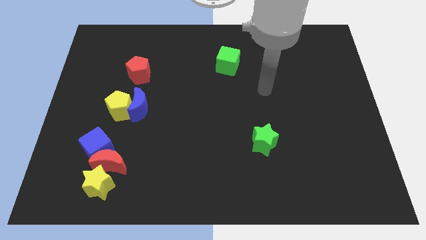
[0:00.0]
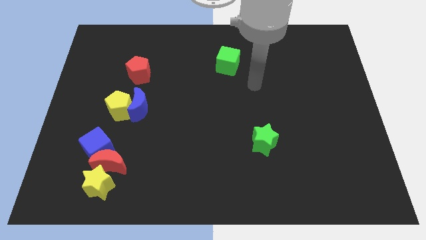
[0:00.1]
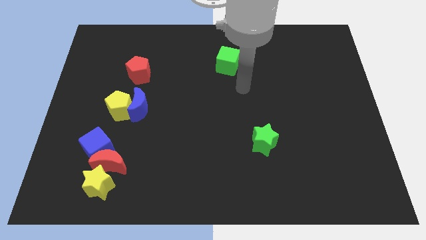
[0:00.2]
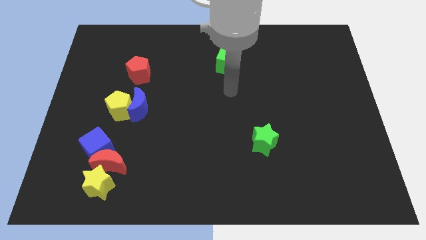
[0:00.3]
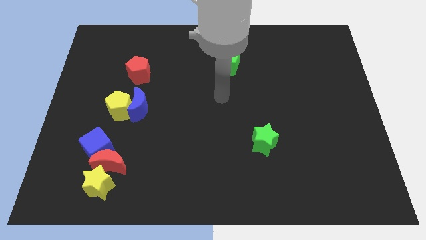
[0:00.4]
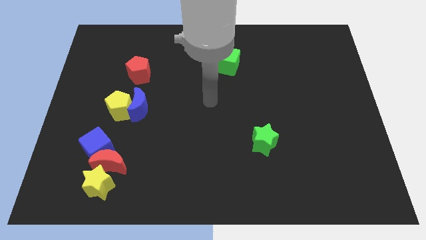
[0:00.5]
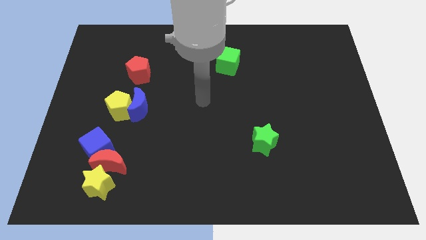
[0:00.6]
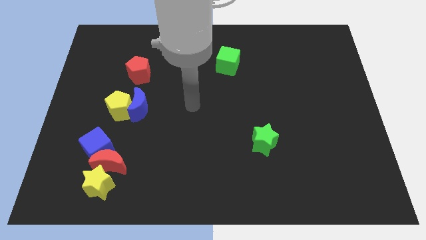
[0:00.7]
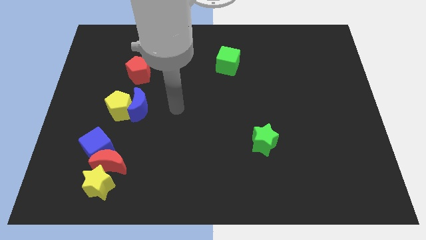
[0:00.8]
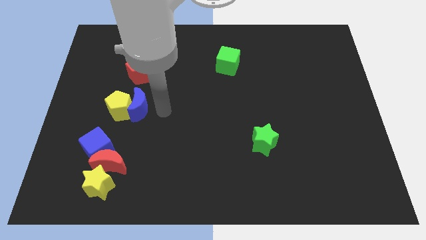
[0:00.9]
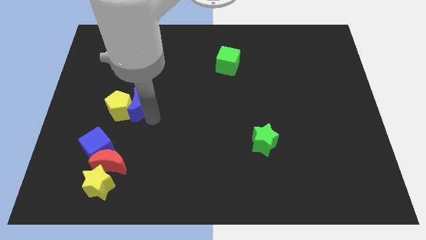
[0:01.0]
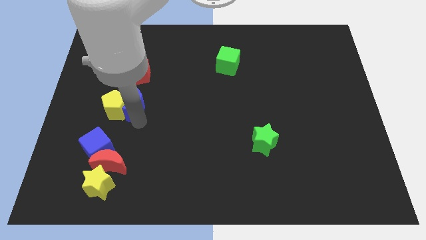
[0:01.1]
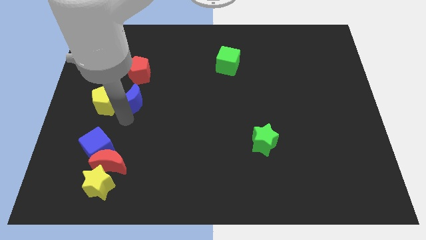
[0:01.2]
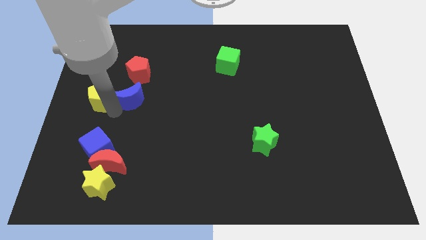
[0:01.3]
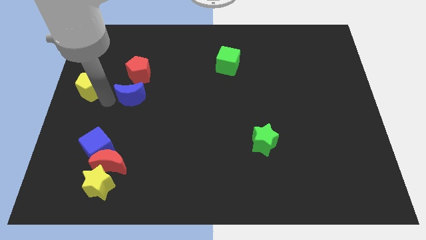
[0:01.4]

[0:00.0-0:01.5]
move the blue moon away from the yellow pentagon

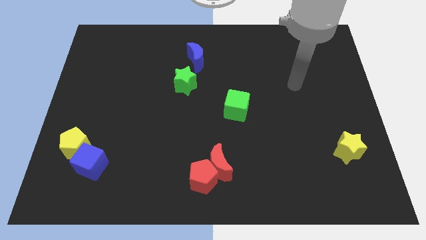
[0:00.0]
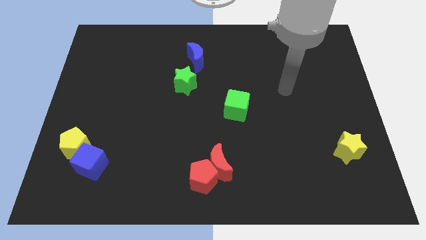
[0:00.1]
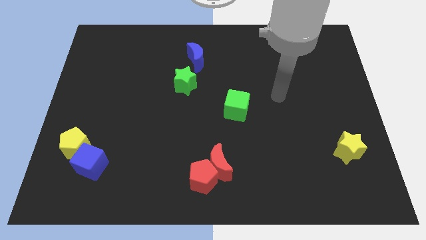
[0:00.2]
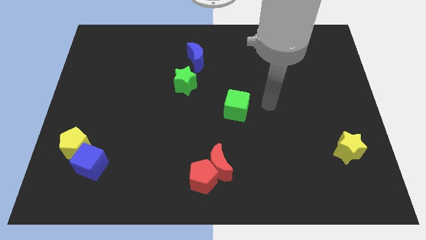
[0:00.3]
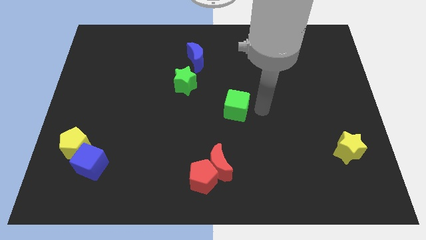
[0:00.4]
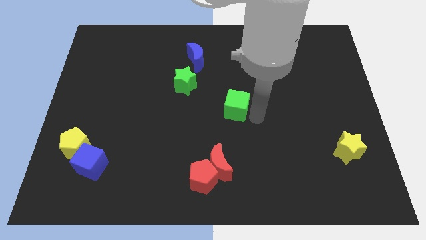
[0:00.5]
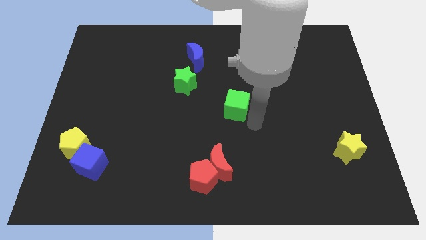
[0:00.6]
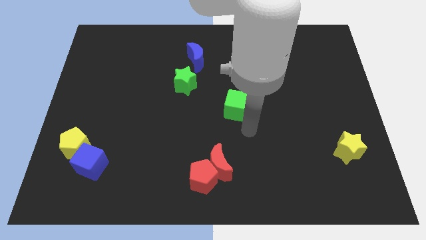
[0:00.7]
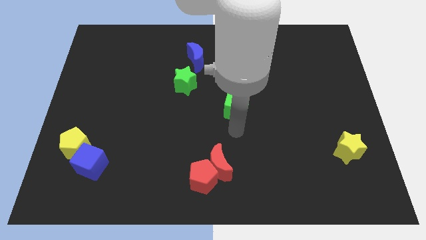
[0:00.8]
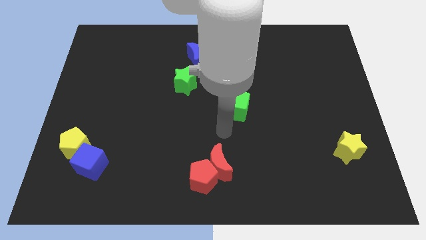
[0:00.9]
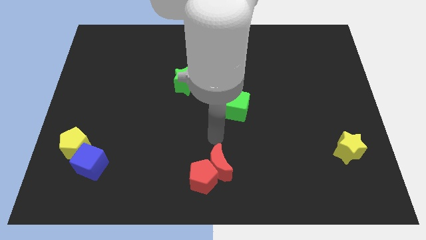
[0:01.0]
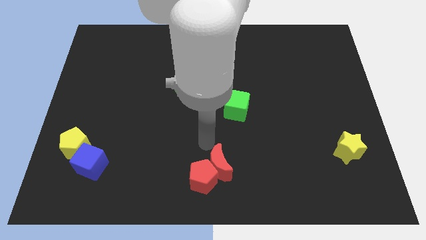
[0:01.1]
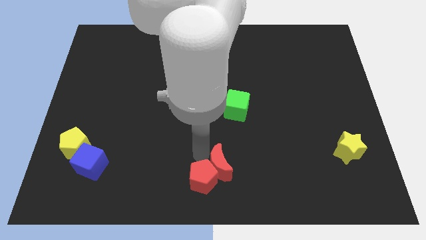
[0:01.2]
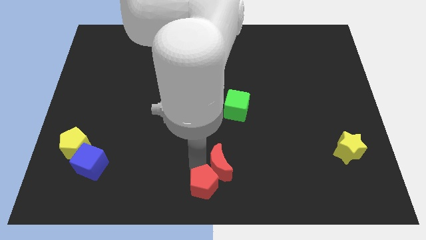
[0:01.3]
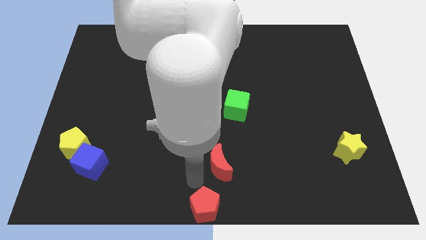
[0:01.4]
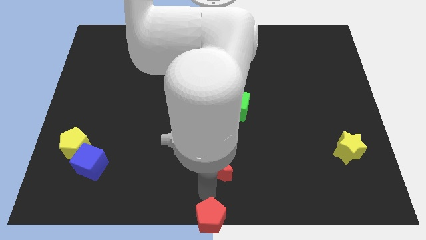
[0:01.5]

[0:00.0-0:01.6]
pull the red moon apart from the red pentagon

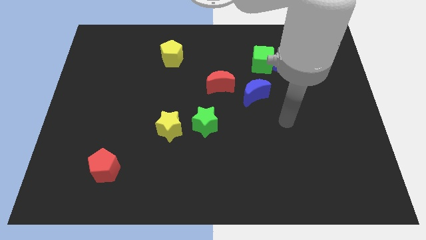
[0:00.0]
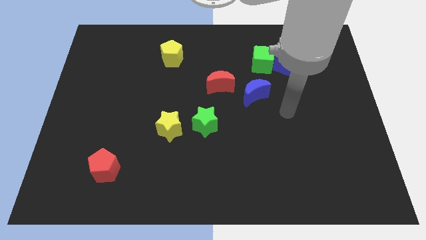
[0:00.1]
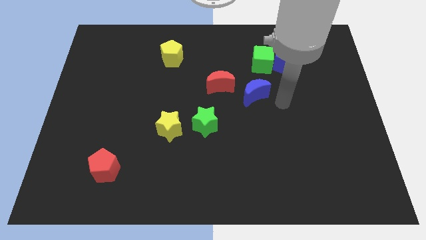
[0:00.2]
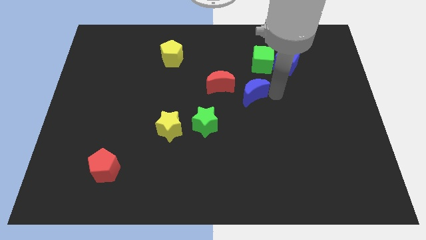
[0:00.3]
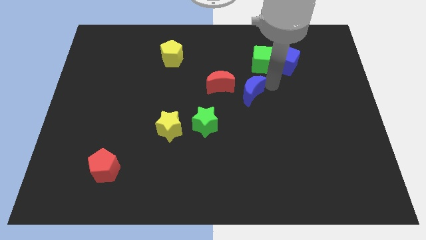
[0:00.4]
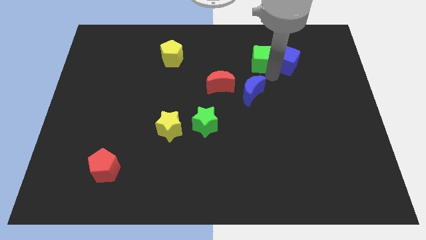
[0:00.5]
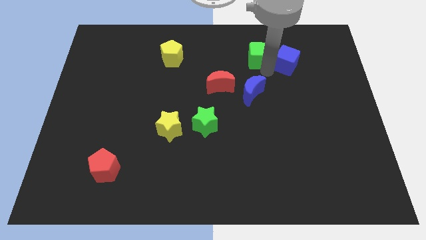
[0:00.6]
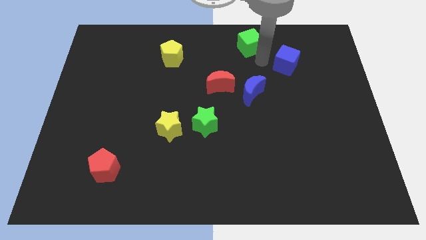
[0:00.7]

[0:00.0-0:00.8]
separate the blue cube from the green cube

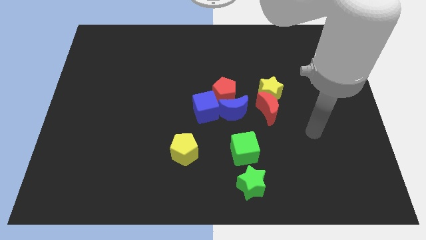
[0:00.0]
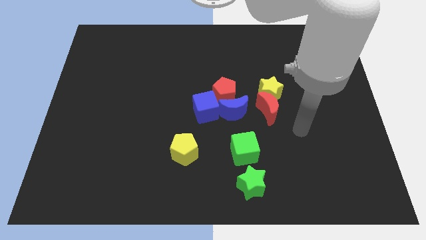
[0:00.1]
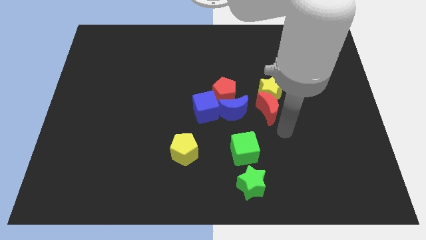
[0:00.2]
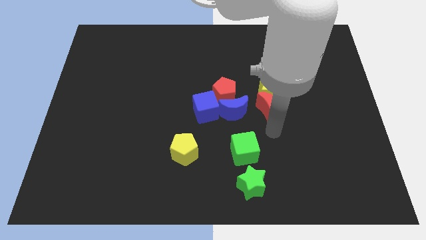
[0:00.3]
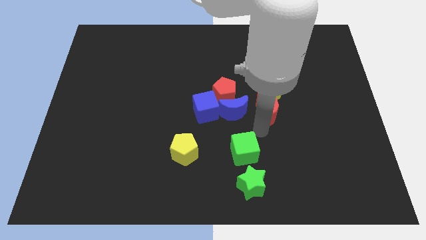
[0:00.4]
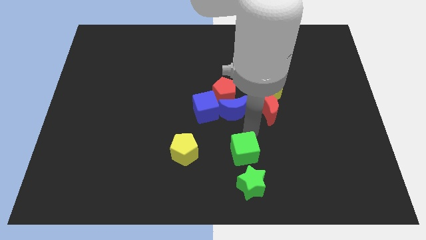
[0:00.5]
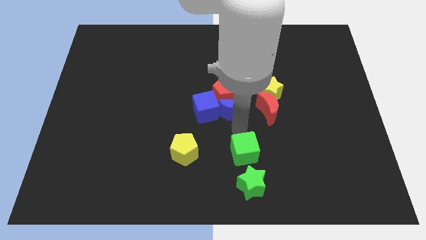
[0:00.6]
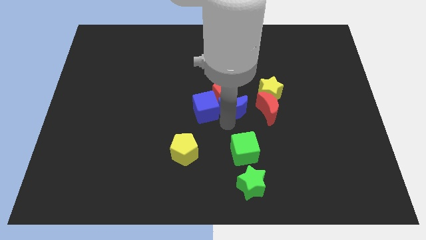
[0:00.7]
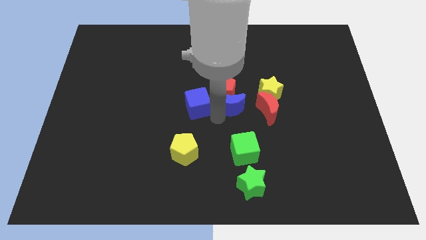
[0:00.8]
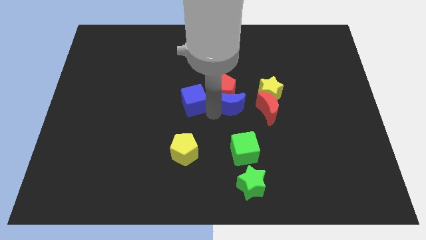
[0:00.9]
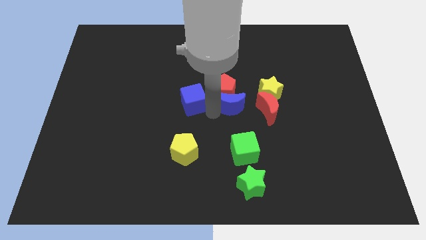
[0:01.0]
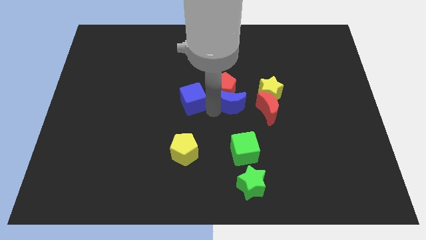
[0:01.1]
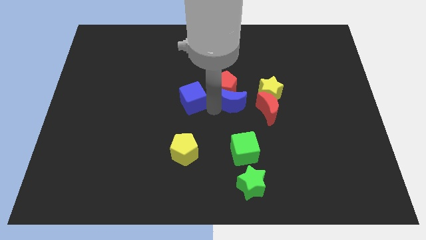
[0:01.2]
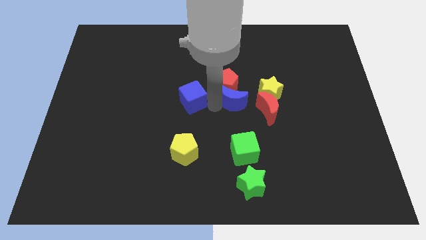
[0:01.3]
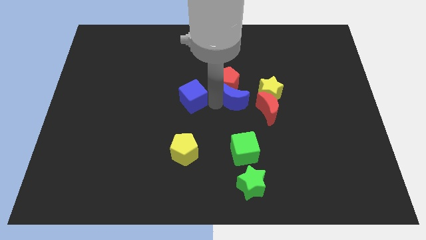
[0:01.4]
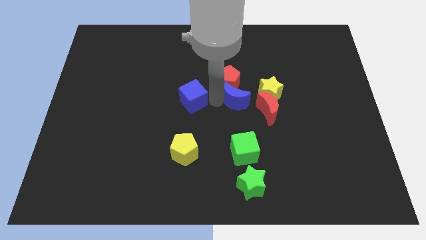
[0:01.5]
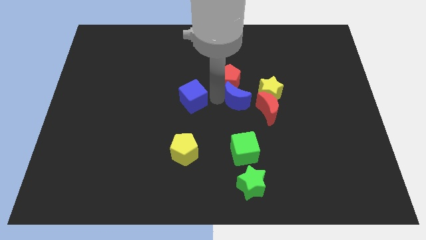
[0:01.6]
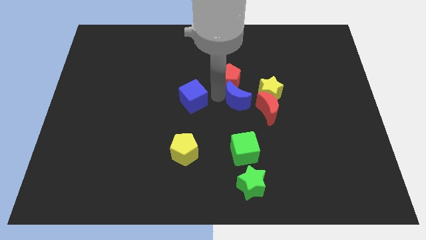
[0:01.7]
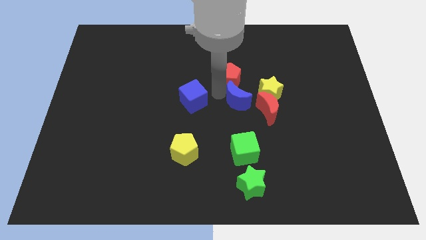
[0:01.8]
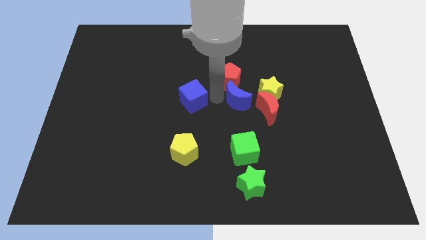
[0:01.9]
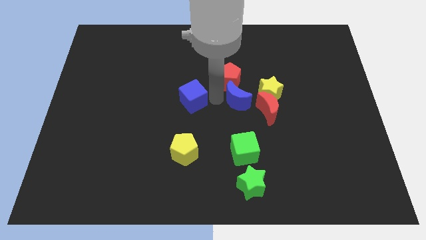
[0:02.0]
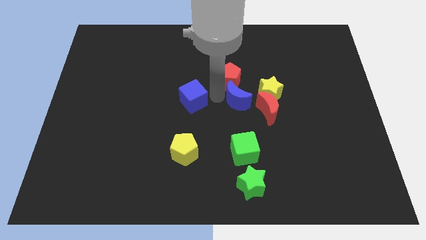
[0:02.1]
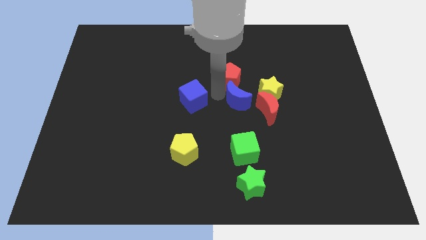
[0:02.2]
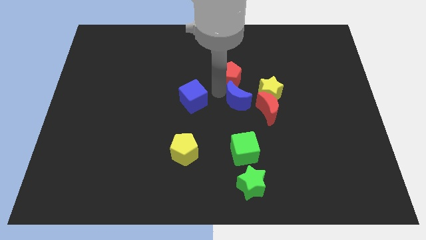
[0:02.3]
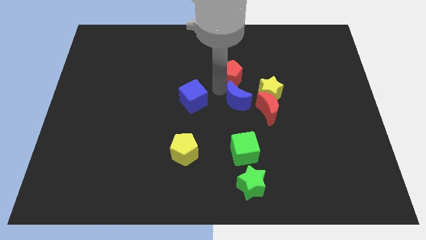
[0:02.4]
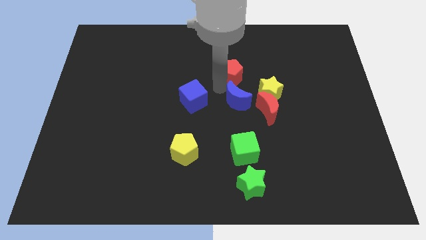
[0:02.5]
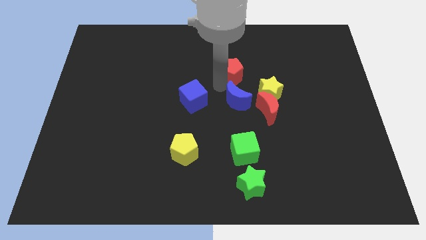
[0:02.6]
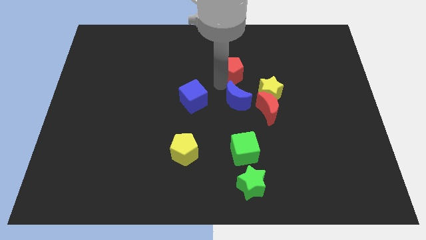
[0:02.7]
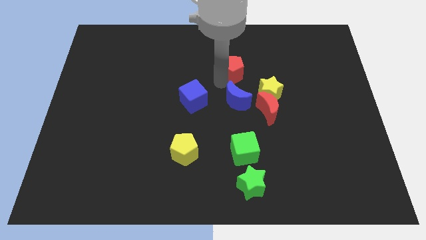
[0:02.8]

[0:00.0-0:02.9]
separate the red pentagon from the blue moon and blue cube

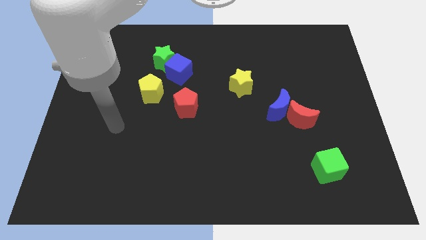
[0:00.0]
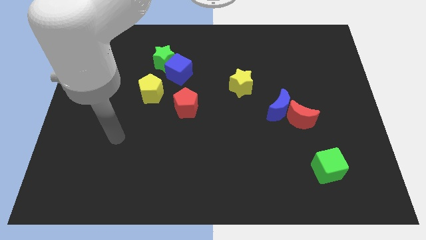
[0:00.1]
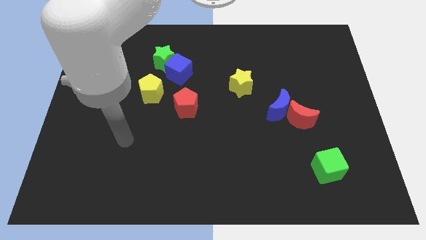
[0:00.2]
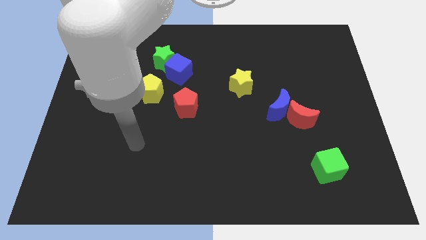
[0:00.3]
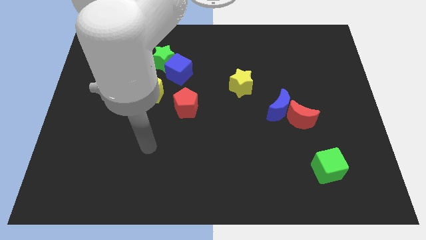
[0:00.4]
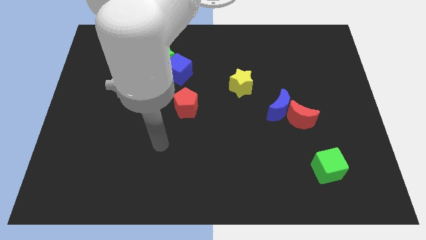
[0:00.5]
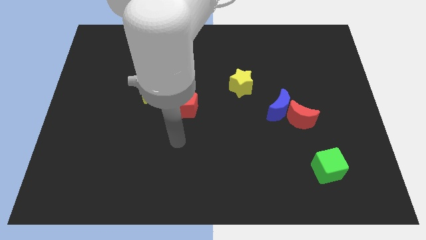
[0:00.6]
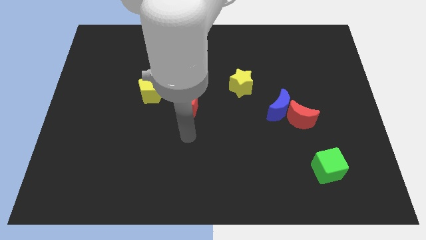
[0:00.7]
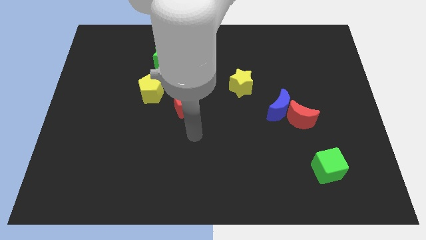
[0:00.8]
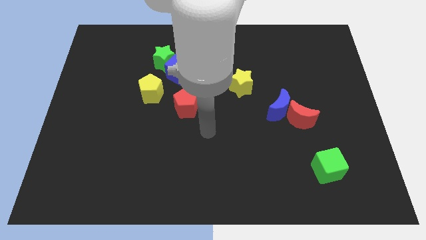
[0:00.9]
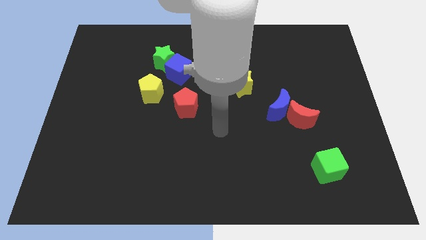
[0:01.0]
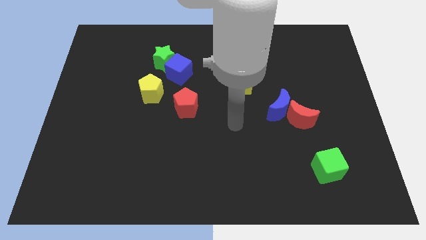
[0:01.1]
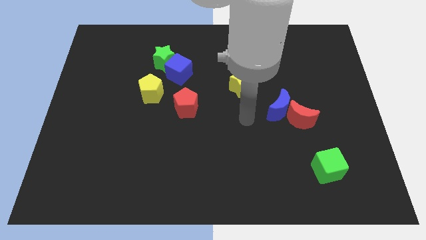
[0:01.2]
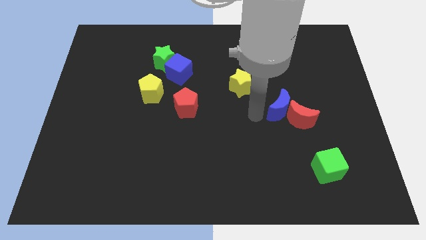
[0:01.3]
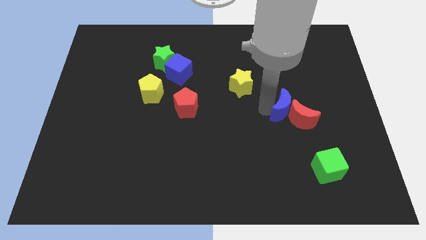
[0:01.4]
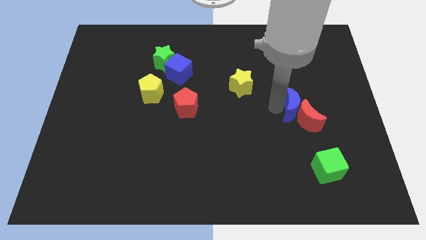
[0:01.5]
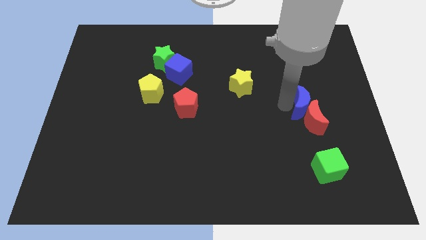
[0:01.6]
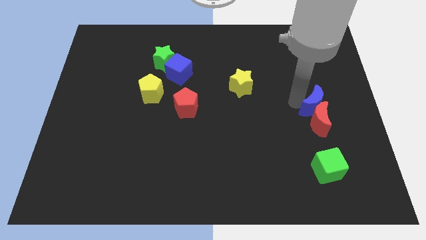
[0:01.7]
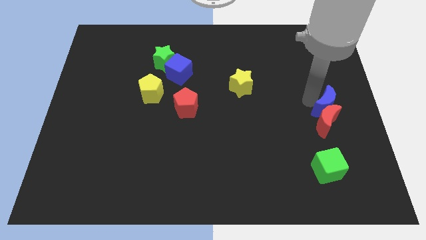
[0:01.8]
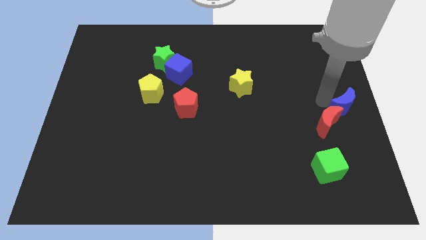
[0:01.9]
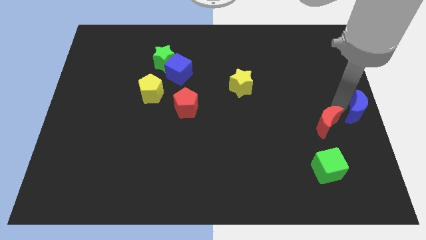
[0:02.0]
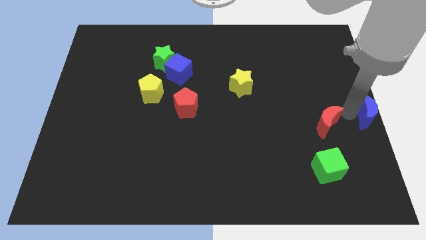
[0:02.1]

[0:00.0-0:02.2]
move the red moon away from the blue moon

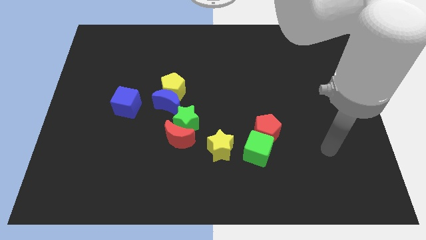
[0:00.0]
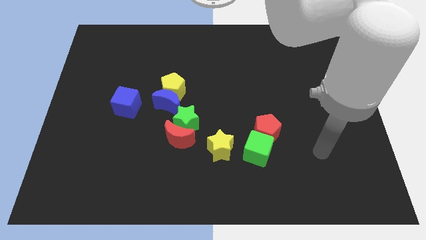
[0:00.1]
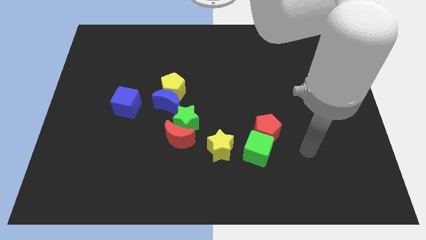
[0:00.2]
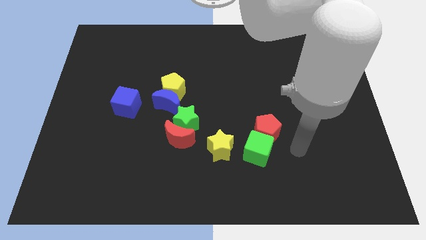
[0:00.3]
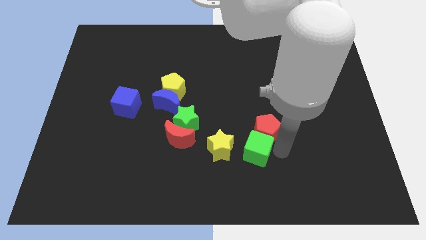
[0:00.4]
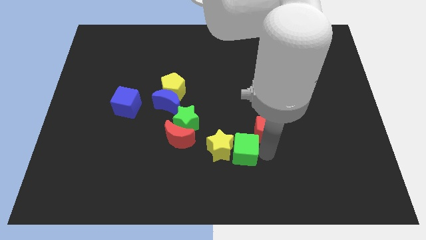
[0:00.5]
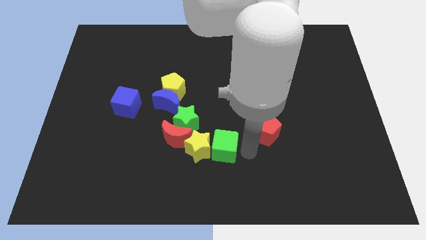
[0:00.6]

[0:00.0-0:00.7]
separate the red pentagon from the green cube
